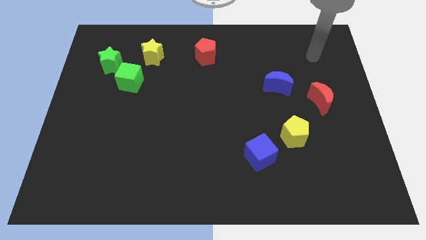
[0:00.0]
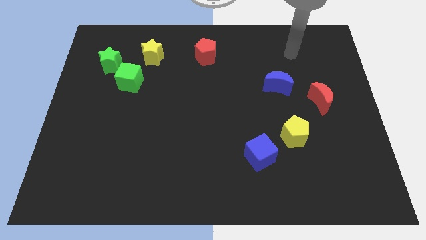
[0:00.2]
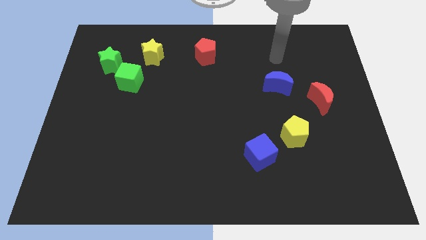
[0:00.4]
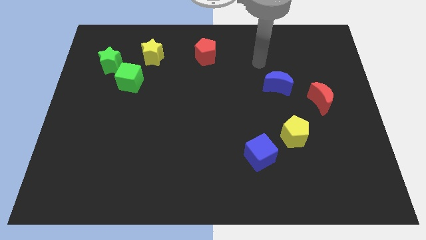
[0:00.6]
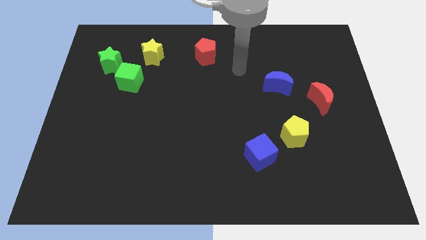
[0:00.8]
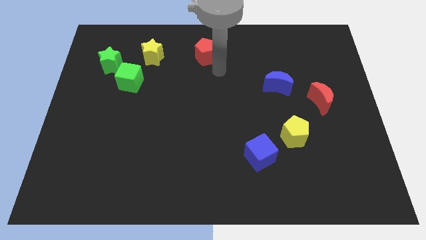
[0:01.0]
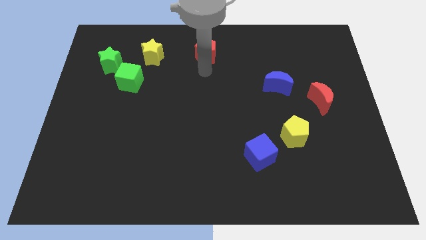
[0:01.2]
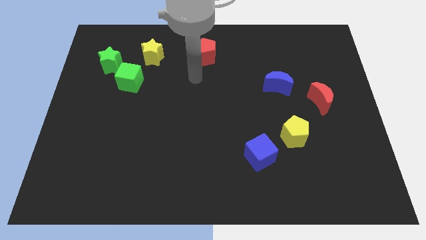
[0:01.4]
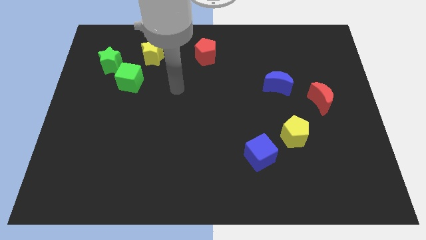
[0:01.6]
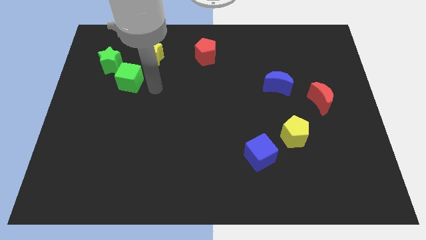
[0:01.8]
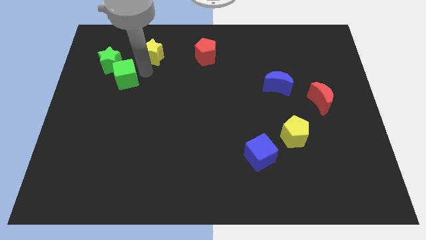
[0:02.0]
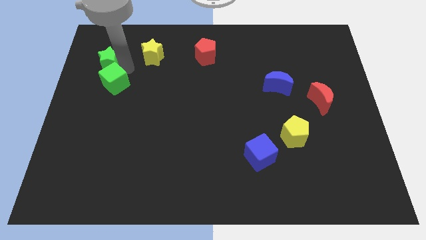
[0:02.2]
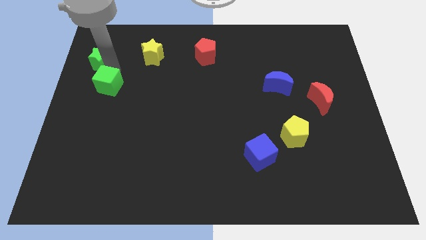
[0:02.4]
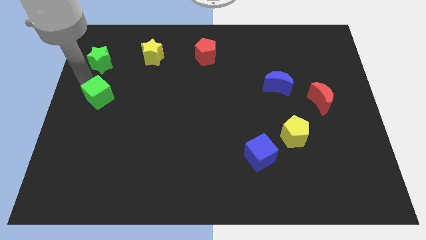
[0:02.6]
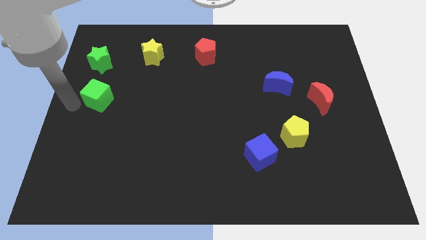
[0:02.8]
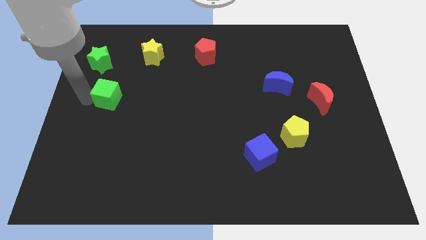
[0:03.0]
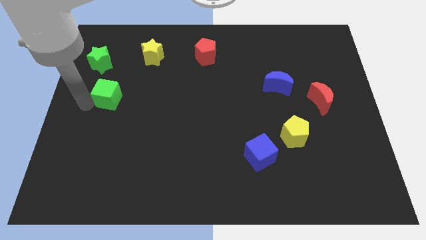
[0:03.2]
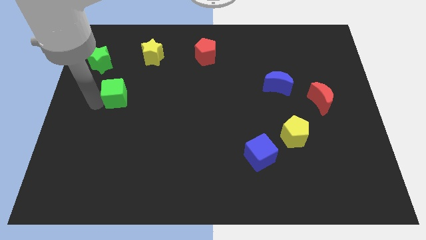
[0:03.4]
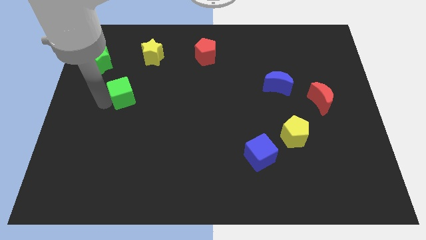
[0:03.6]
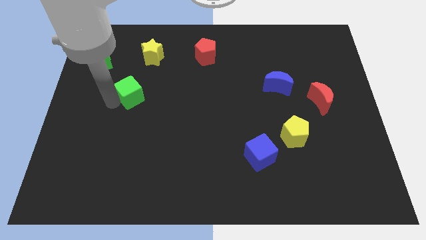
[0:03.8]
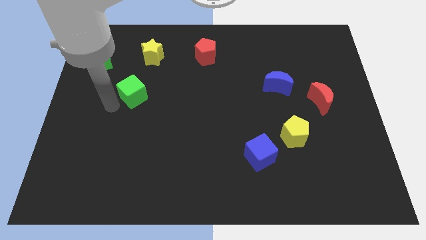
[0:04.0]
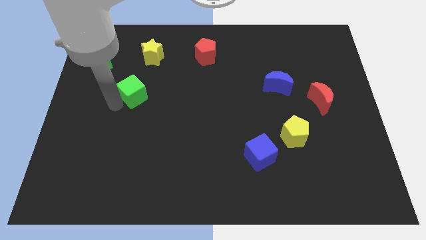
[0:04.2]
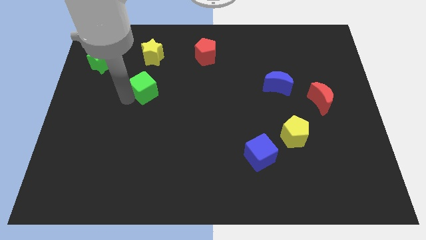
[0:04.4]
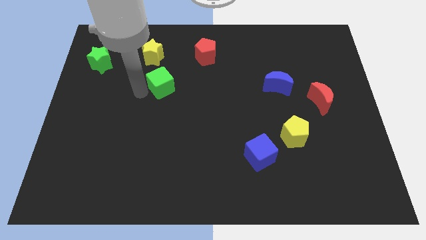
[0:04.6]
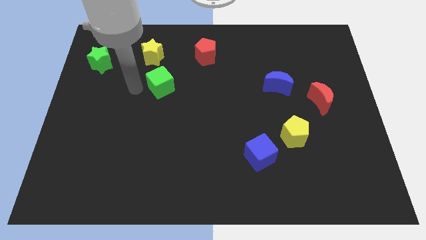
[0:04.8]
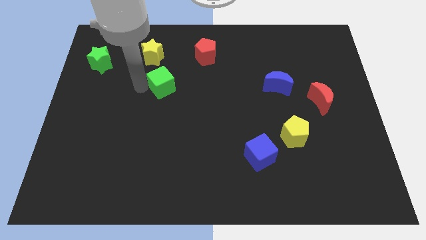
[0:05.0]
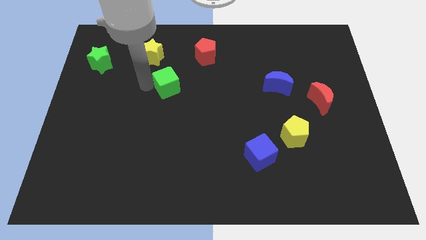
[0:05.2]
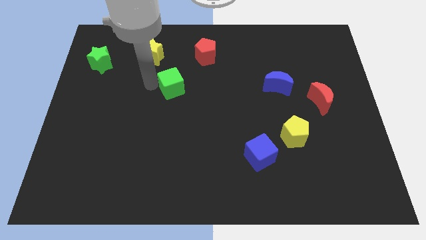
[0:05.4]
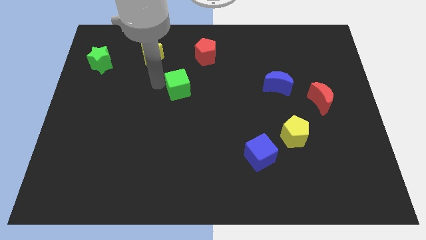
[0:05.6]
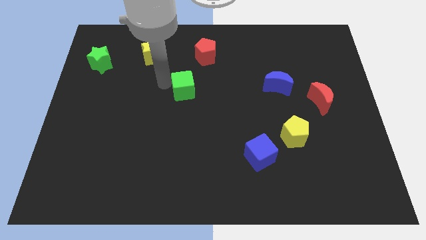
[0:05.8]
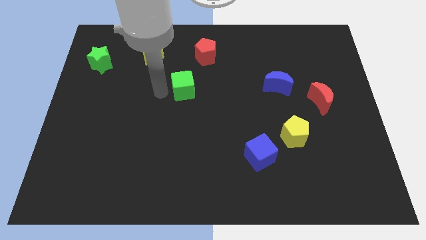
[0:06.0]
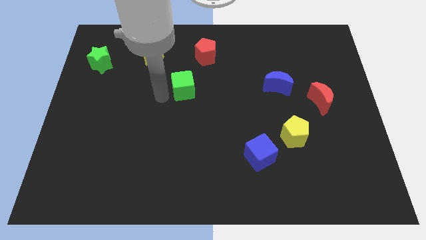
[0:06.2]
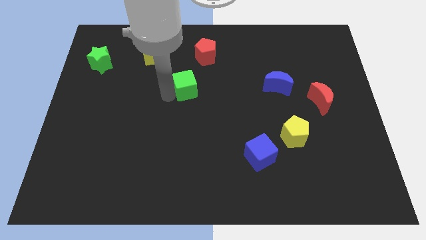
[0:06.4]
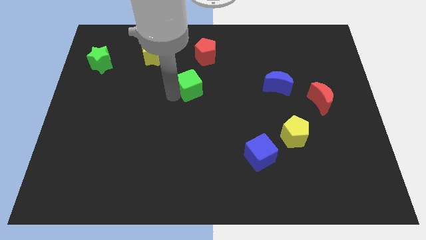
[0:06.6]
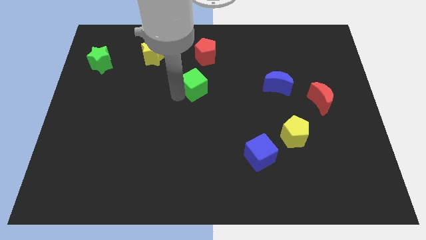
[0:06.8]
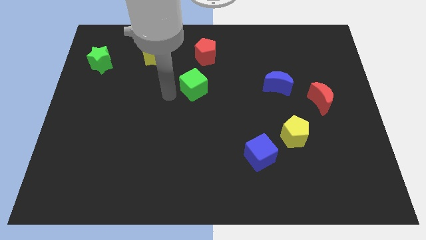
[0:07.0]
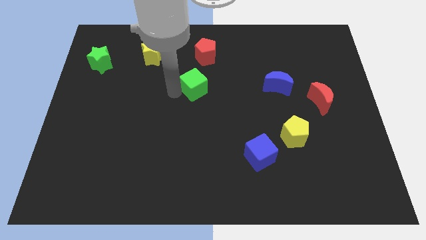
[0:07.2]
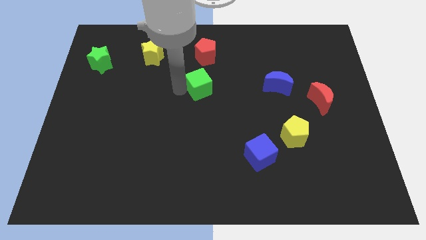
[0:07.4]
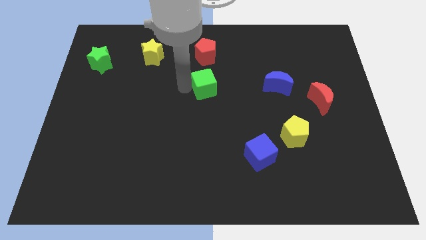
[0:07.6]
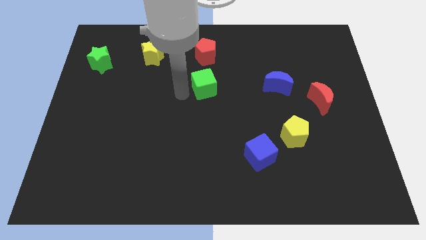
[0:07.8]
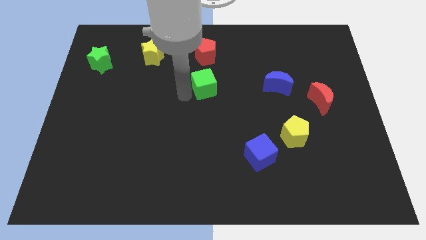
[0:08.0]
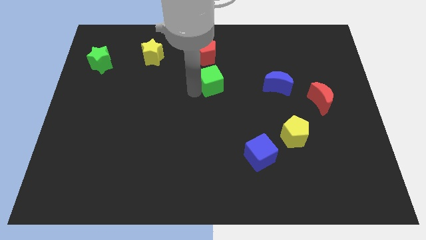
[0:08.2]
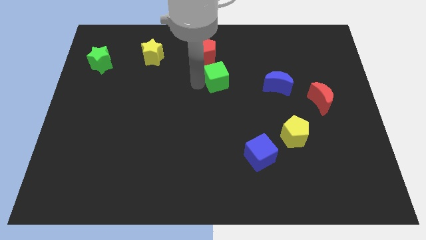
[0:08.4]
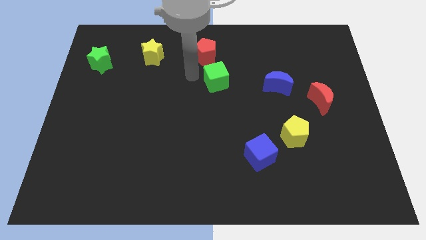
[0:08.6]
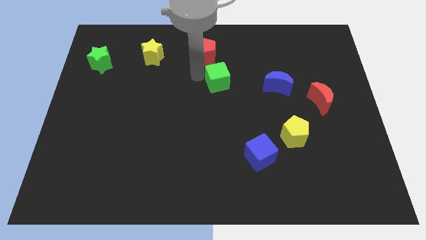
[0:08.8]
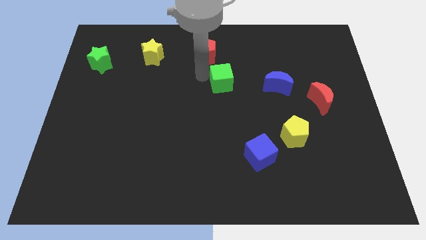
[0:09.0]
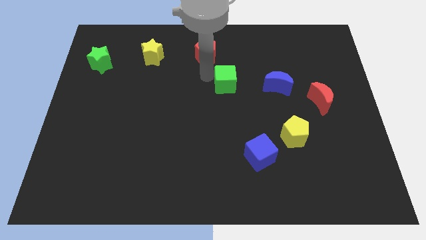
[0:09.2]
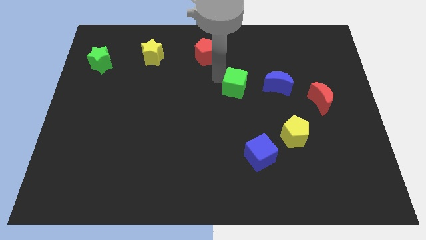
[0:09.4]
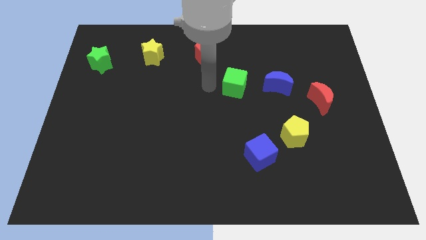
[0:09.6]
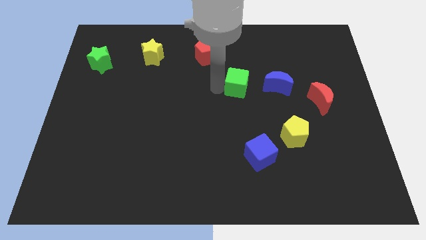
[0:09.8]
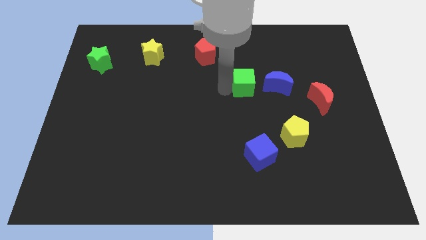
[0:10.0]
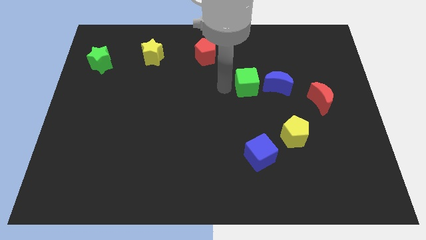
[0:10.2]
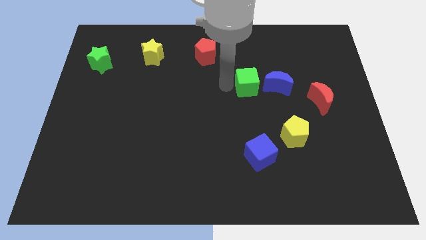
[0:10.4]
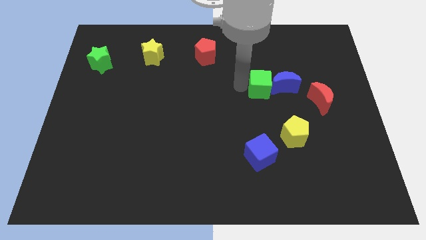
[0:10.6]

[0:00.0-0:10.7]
put the green cube close to the blue moon

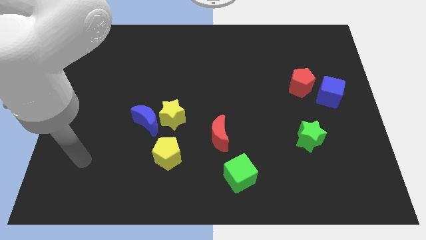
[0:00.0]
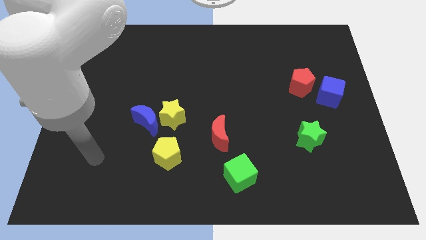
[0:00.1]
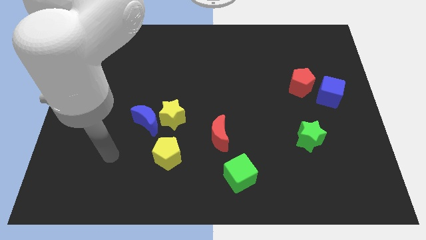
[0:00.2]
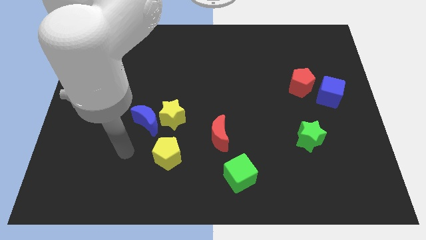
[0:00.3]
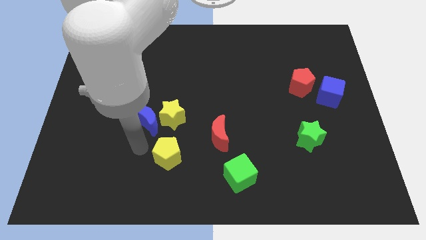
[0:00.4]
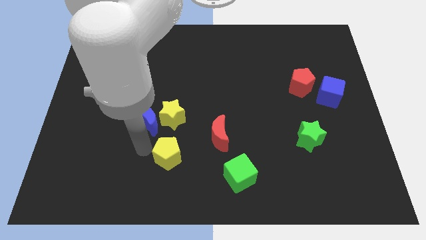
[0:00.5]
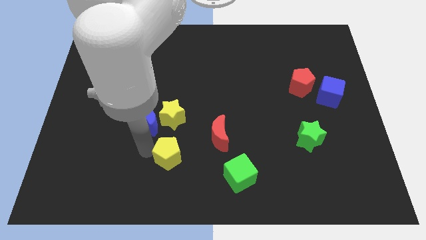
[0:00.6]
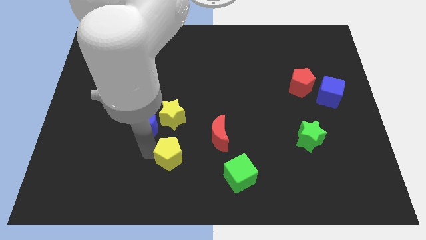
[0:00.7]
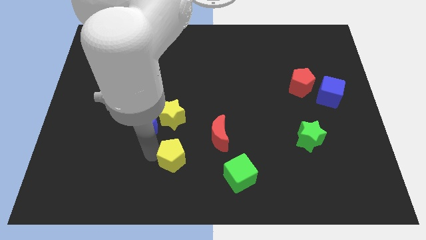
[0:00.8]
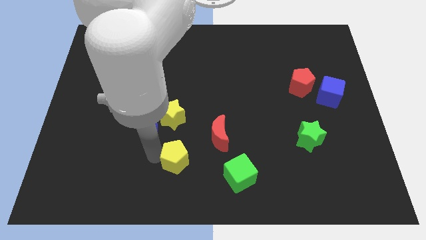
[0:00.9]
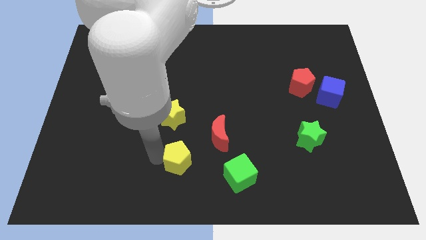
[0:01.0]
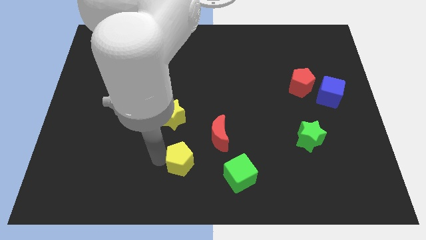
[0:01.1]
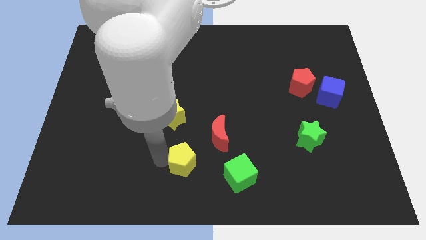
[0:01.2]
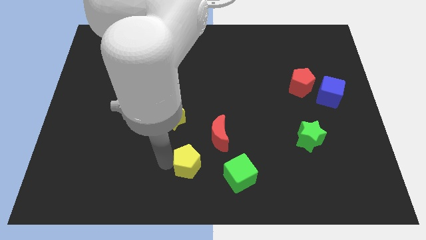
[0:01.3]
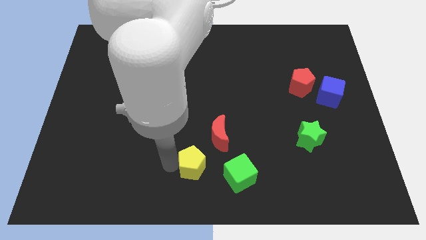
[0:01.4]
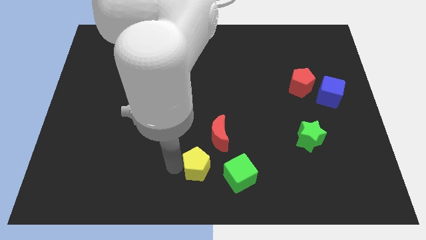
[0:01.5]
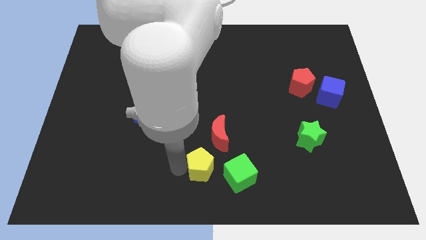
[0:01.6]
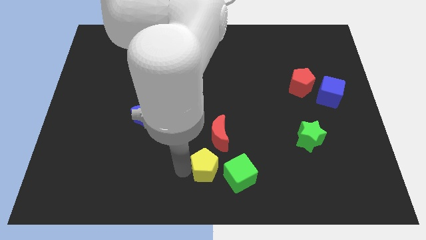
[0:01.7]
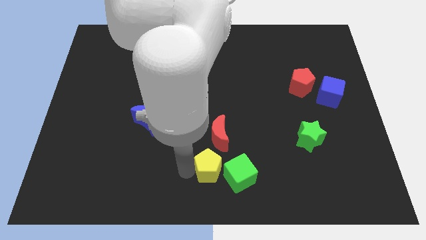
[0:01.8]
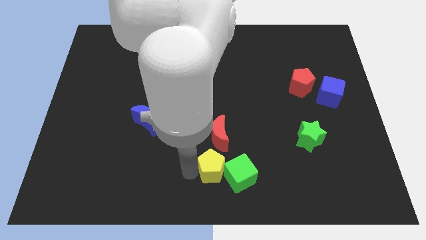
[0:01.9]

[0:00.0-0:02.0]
slide the yellow pentagon towards the green cube
